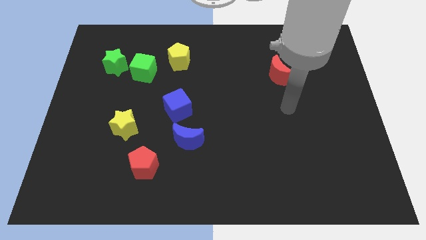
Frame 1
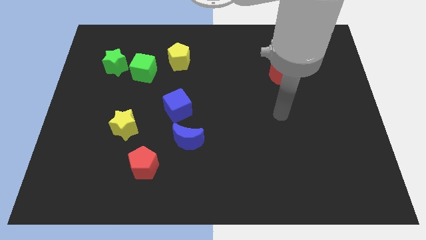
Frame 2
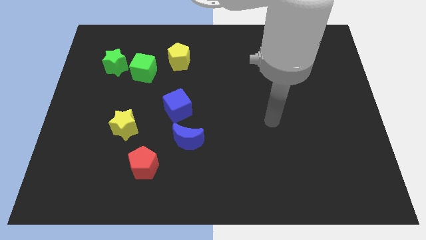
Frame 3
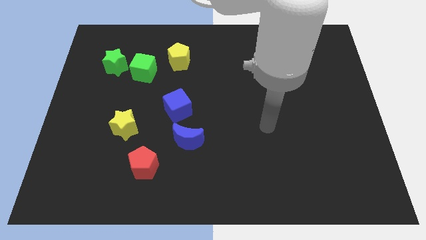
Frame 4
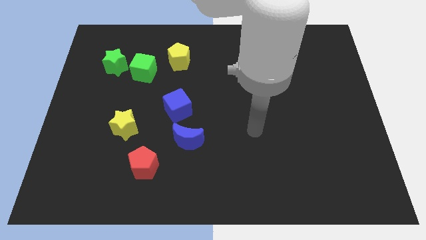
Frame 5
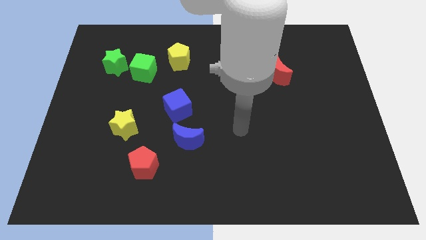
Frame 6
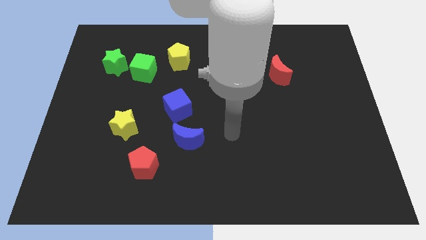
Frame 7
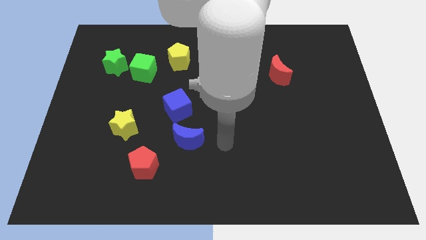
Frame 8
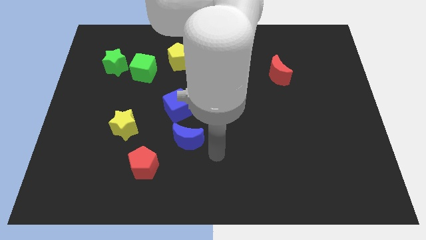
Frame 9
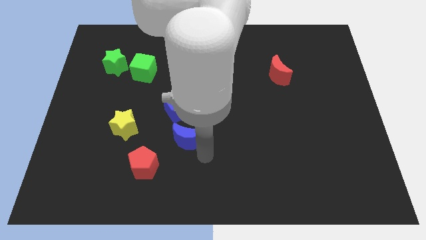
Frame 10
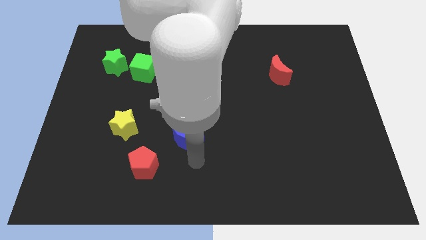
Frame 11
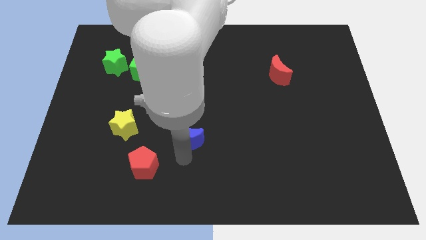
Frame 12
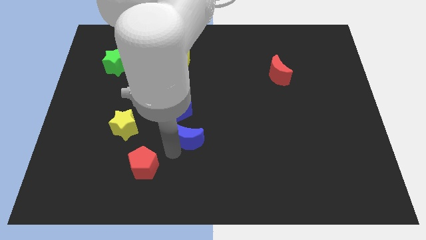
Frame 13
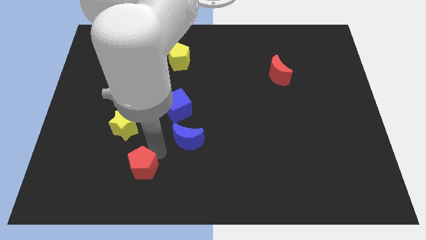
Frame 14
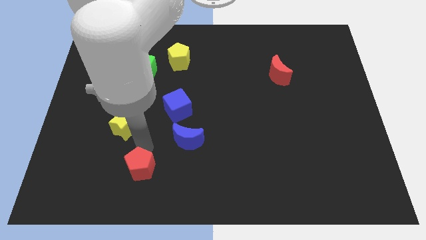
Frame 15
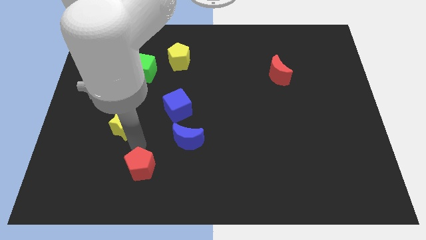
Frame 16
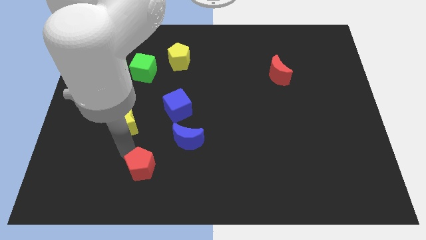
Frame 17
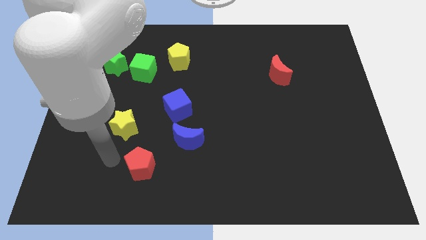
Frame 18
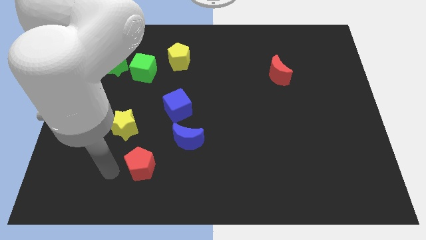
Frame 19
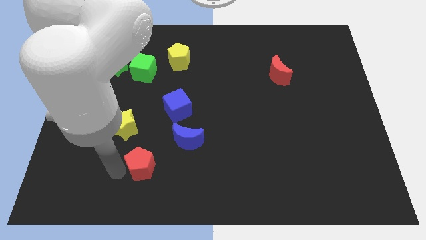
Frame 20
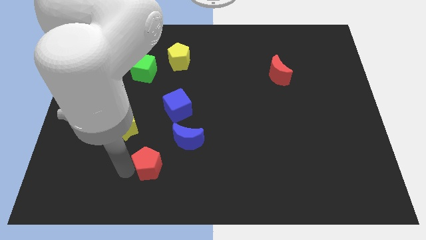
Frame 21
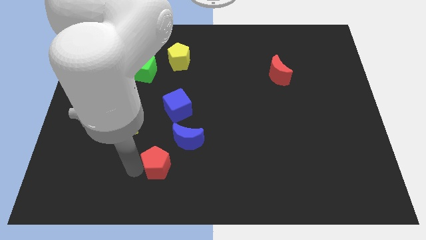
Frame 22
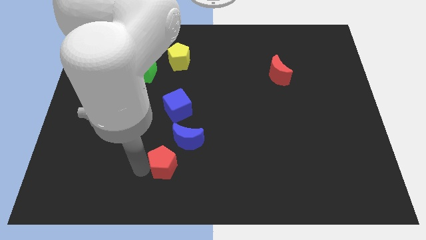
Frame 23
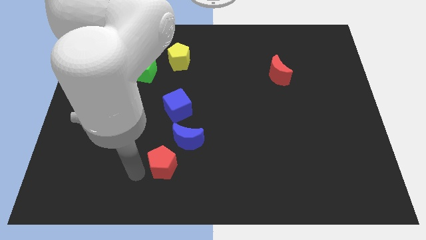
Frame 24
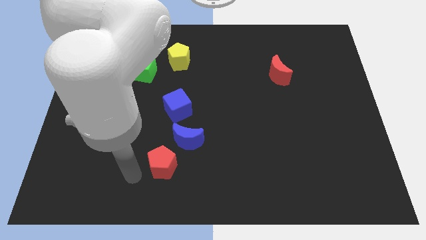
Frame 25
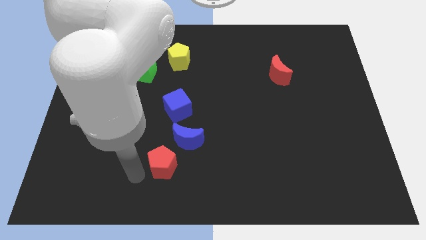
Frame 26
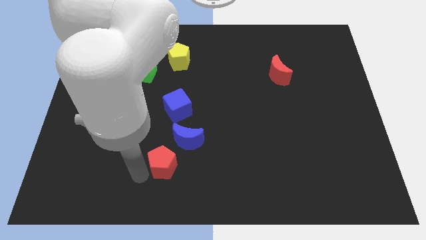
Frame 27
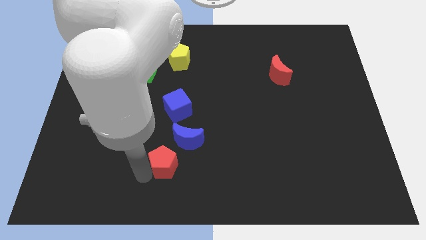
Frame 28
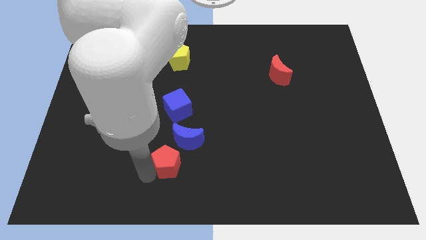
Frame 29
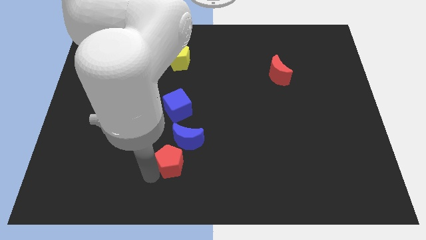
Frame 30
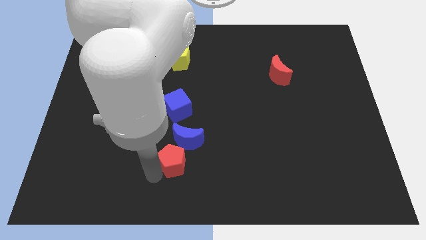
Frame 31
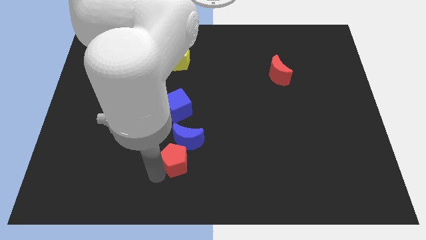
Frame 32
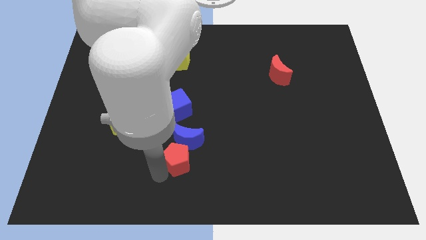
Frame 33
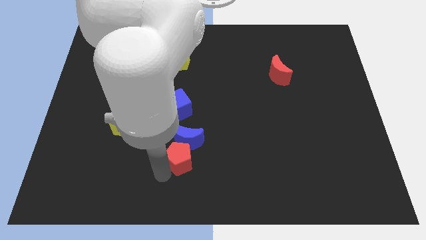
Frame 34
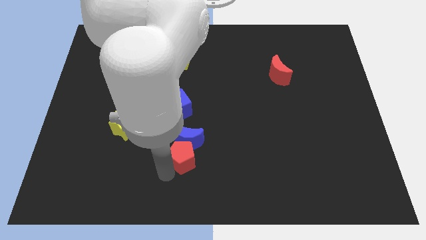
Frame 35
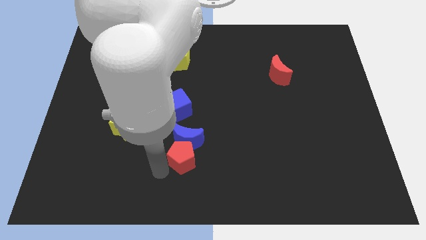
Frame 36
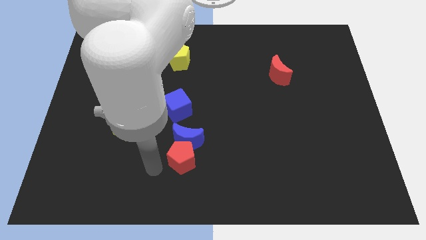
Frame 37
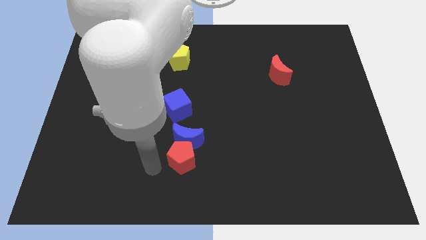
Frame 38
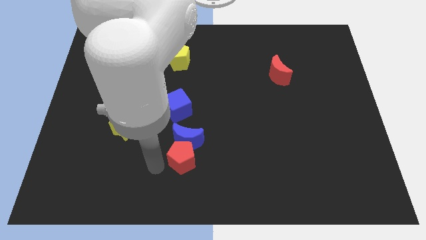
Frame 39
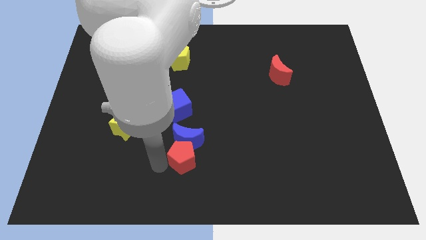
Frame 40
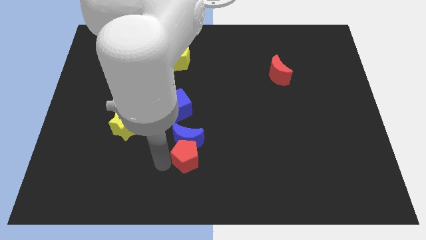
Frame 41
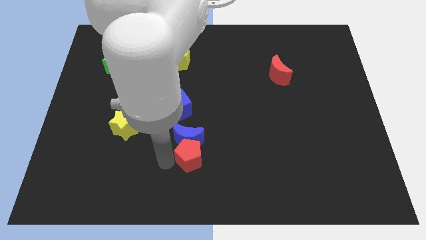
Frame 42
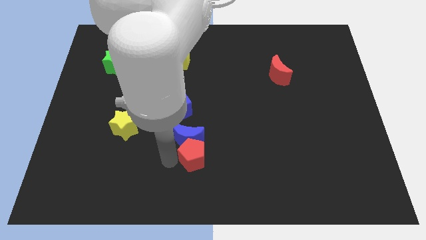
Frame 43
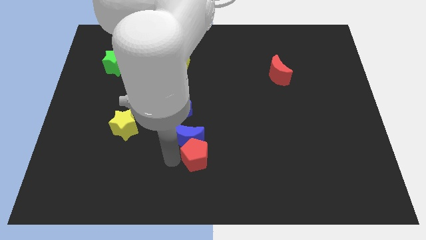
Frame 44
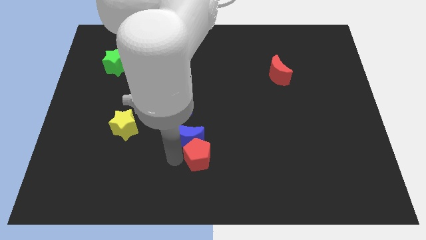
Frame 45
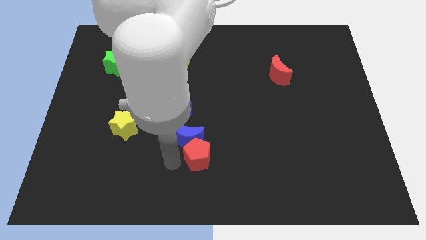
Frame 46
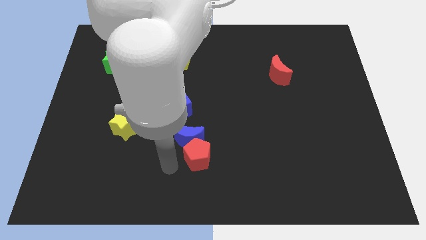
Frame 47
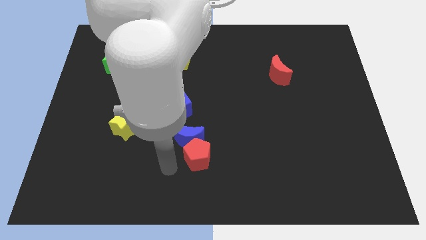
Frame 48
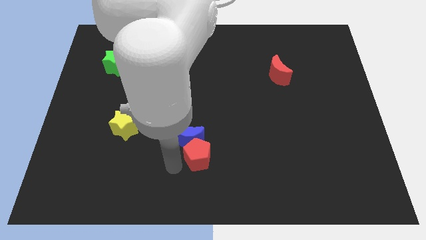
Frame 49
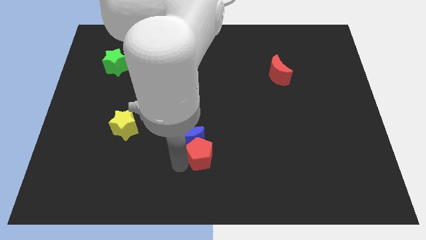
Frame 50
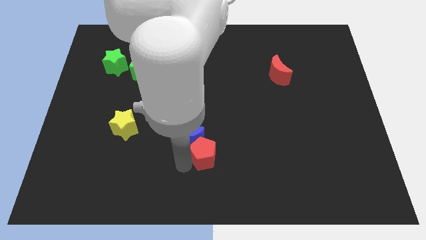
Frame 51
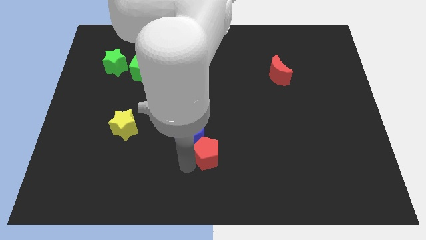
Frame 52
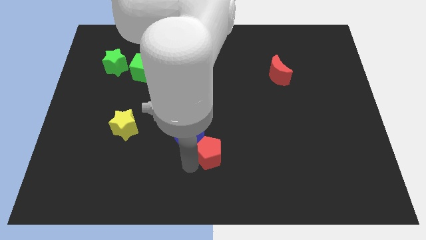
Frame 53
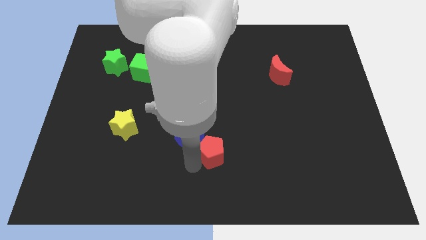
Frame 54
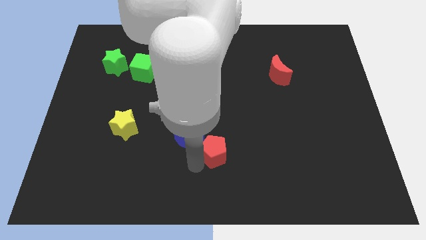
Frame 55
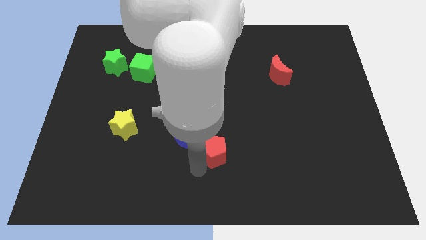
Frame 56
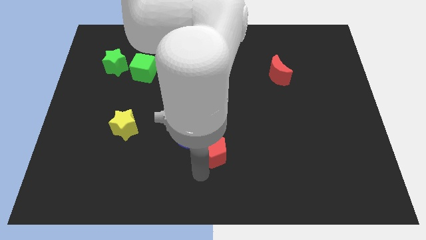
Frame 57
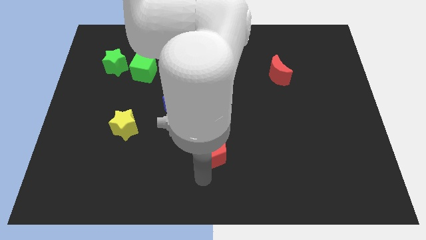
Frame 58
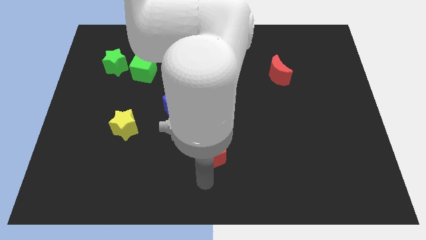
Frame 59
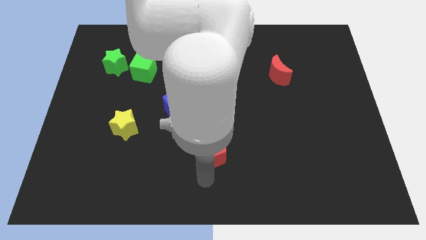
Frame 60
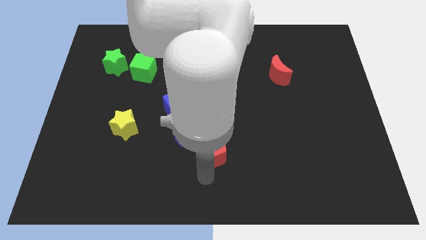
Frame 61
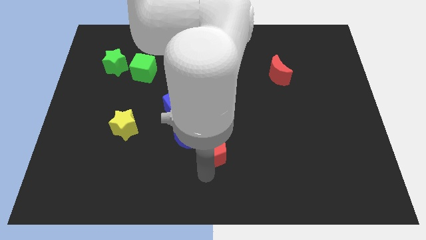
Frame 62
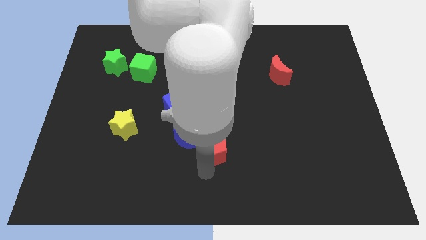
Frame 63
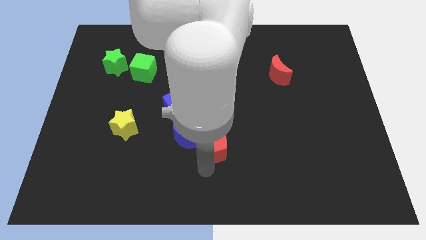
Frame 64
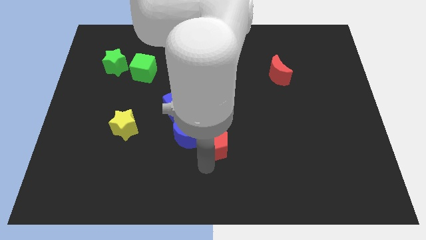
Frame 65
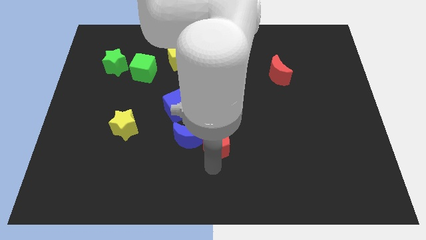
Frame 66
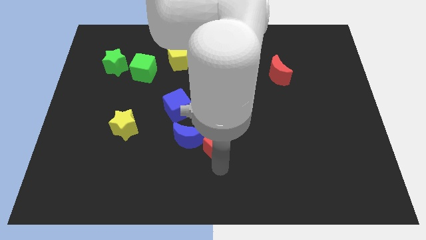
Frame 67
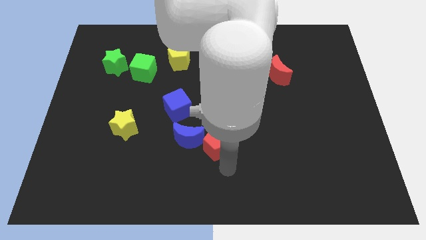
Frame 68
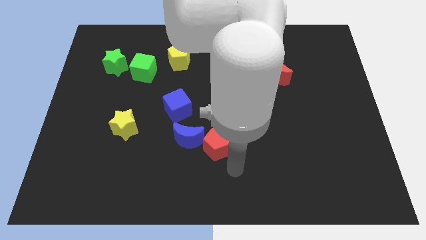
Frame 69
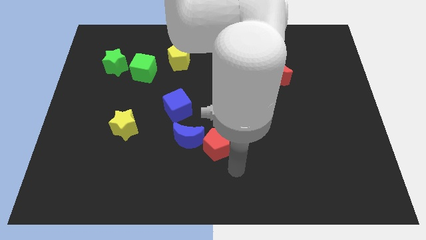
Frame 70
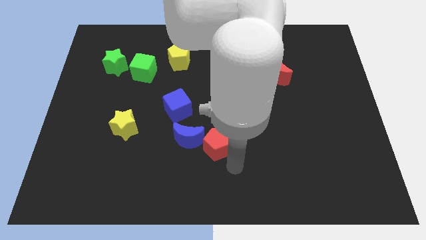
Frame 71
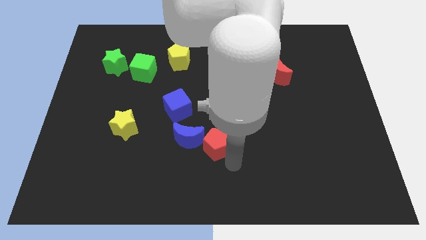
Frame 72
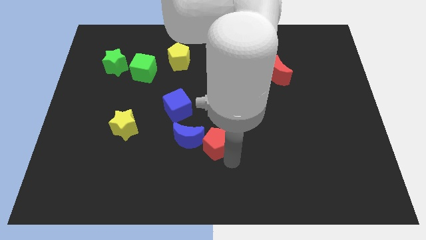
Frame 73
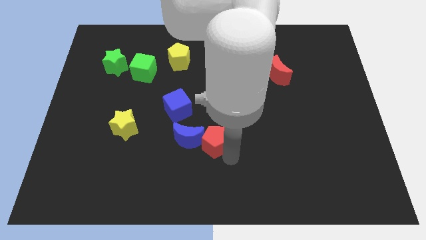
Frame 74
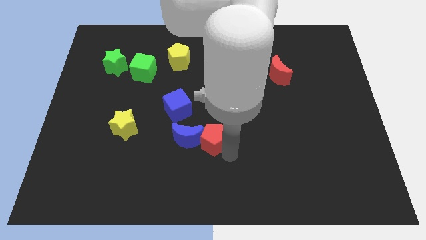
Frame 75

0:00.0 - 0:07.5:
move the red pentagon diagonally down and to the right of the blue cube

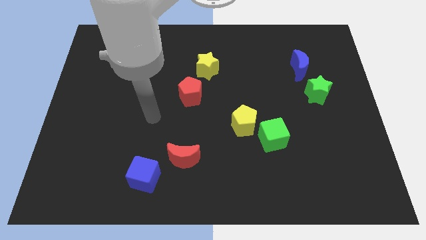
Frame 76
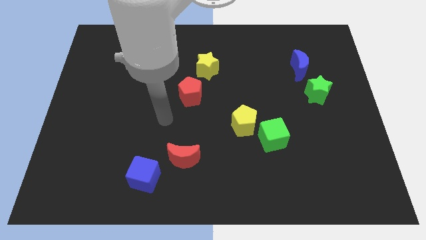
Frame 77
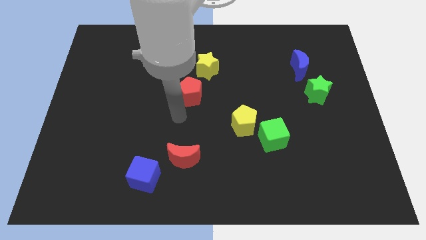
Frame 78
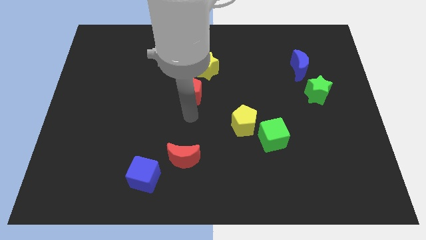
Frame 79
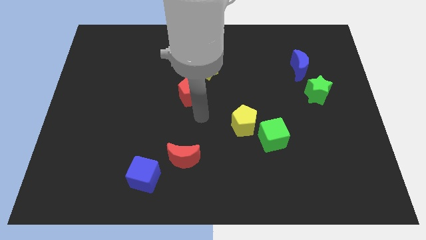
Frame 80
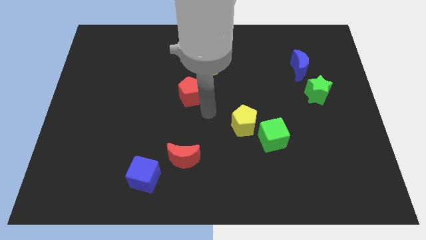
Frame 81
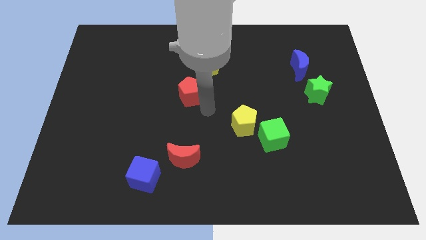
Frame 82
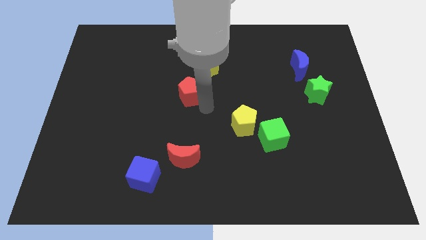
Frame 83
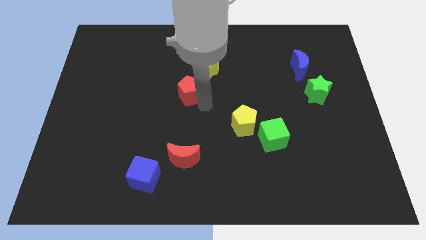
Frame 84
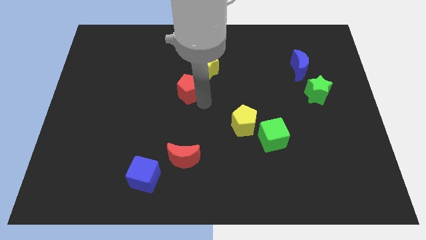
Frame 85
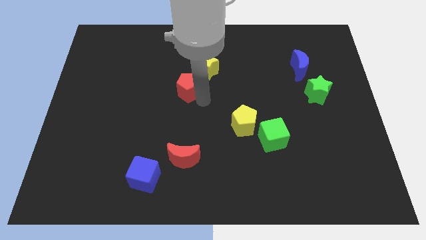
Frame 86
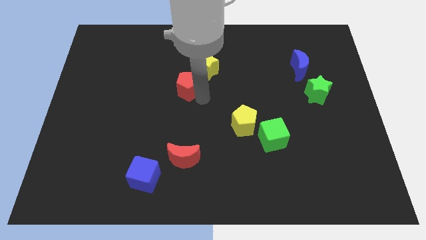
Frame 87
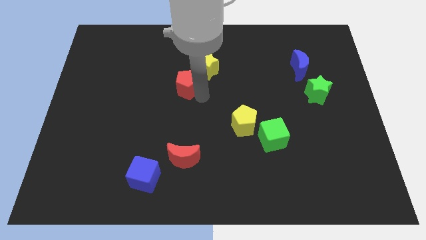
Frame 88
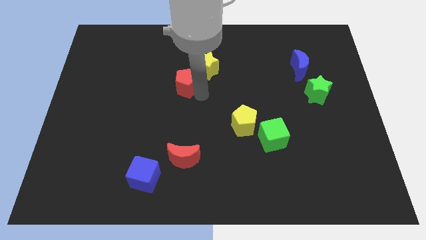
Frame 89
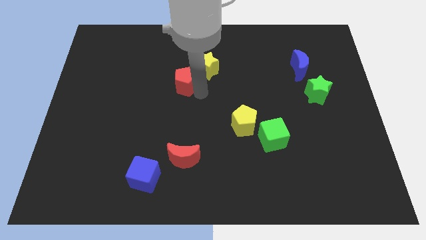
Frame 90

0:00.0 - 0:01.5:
move the red pentagon to the left side of the yellow star
